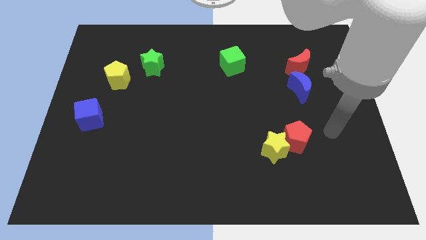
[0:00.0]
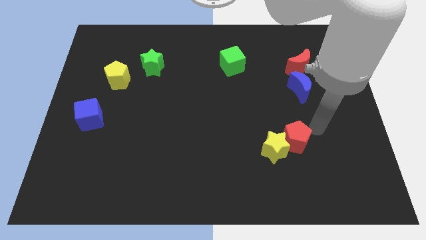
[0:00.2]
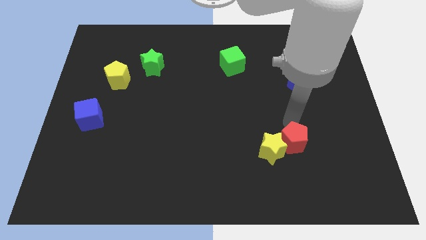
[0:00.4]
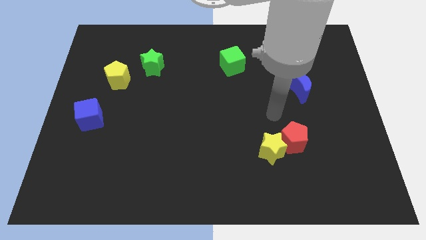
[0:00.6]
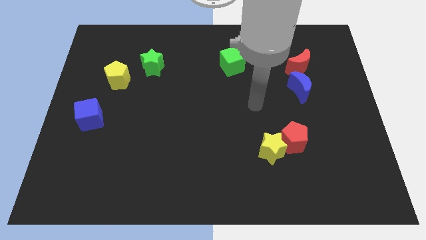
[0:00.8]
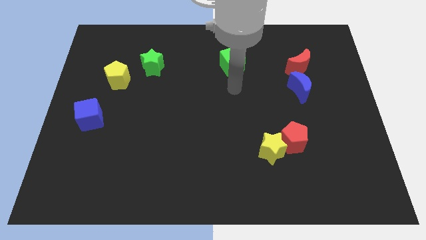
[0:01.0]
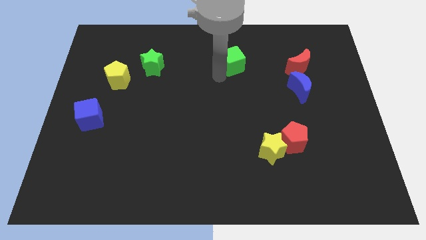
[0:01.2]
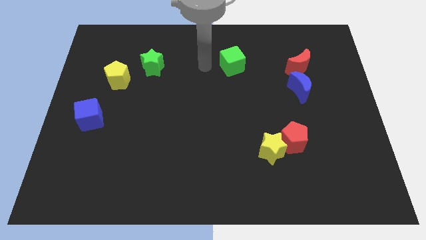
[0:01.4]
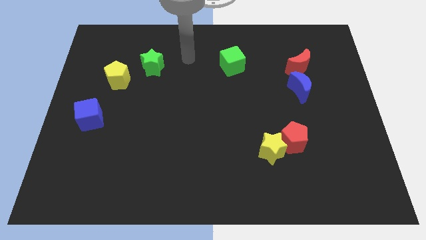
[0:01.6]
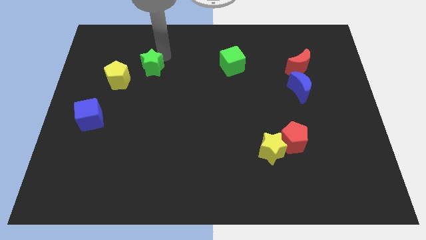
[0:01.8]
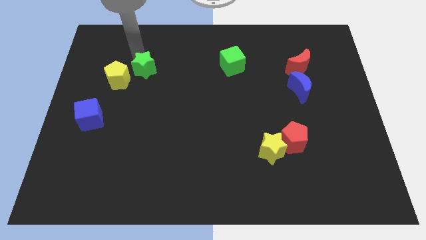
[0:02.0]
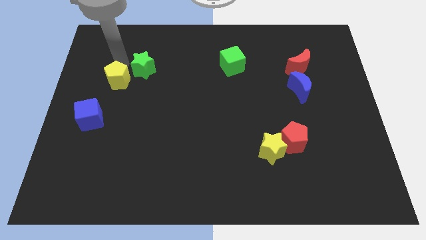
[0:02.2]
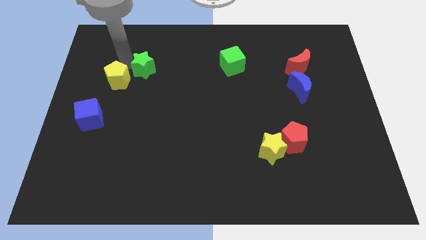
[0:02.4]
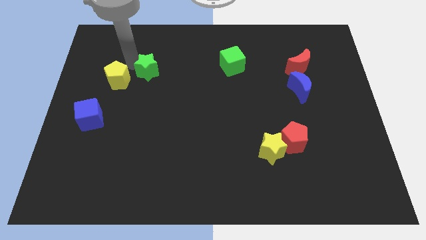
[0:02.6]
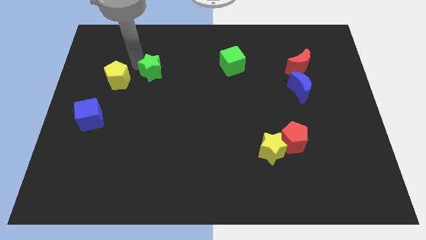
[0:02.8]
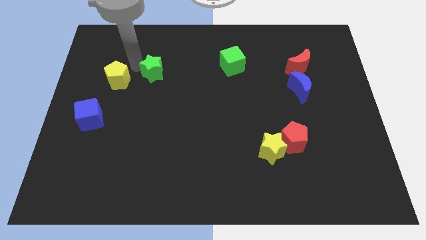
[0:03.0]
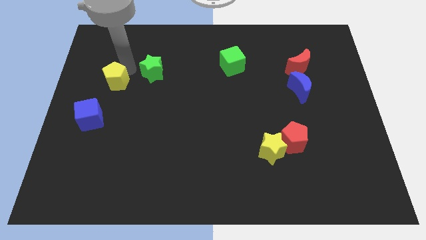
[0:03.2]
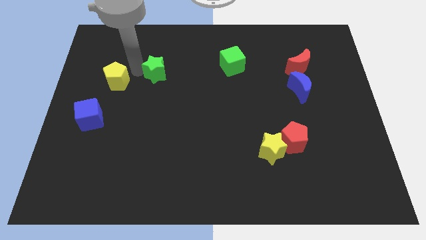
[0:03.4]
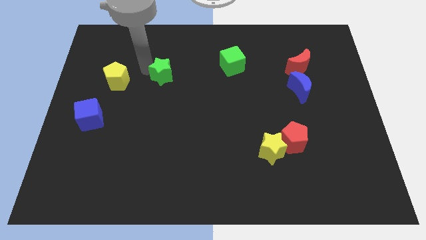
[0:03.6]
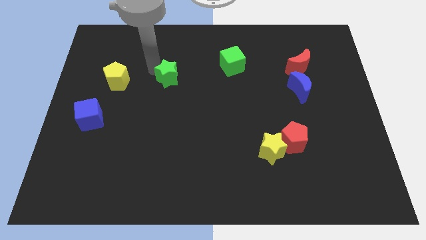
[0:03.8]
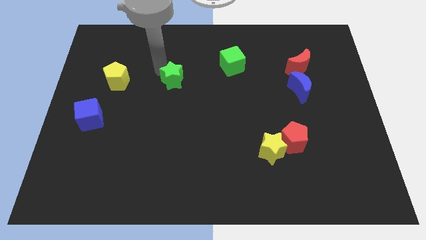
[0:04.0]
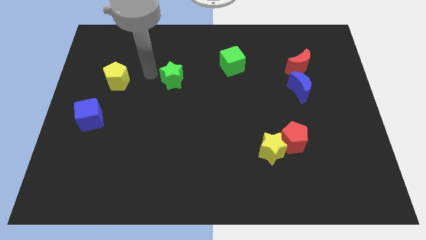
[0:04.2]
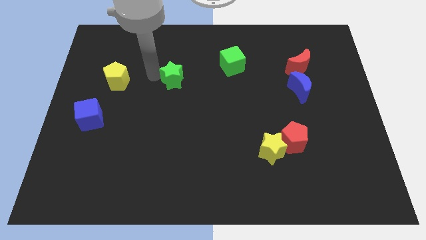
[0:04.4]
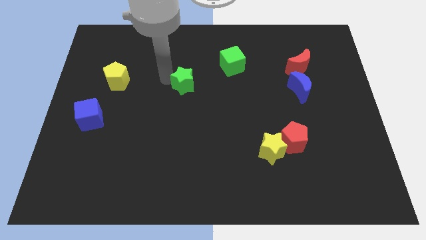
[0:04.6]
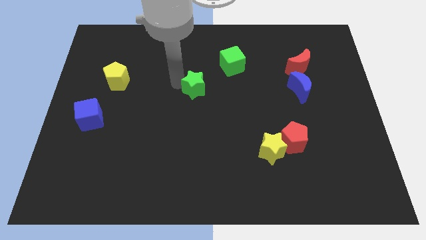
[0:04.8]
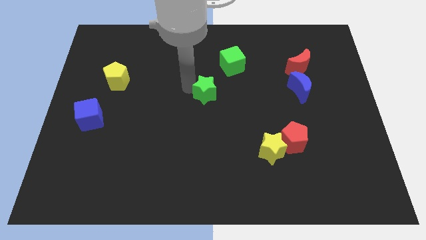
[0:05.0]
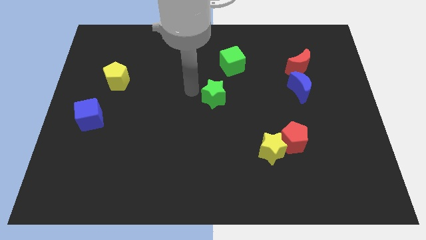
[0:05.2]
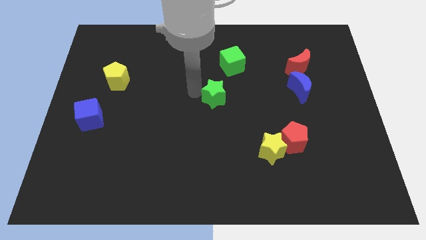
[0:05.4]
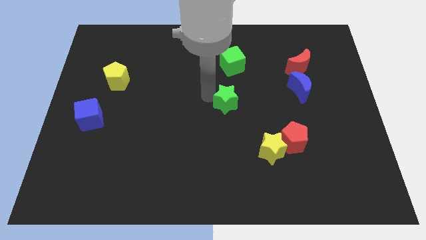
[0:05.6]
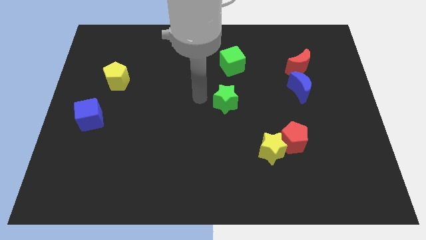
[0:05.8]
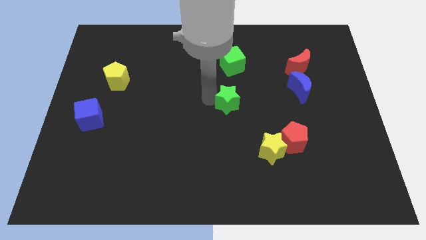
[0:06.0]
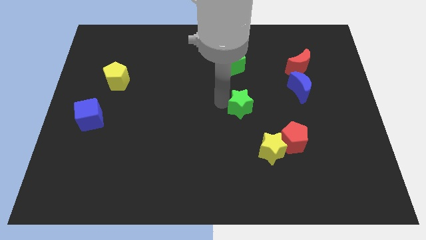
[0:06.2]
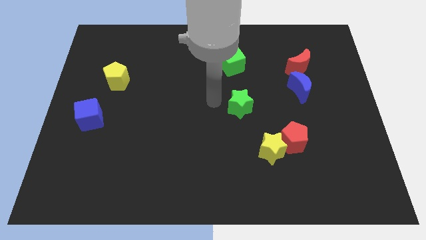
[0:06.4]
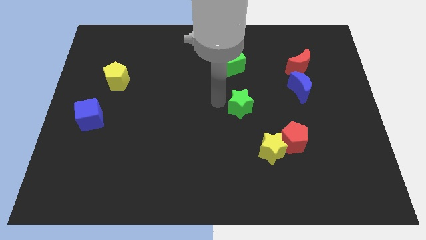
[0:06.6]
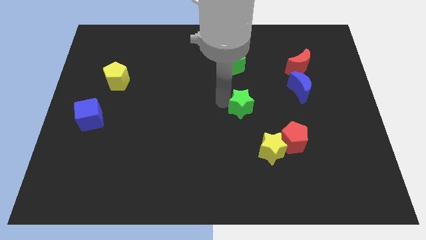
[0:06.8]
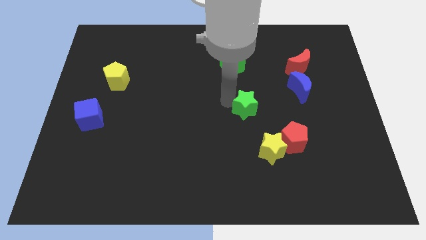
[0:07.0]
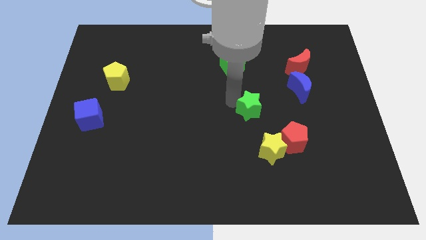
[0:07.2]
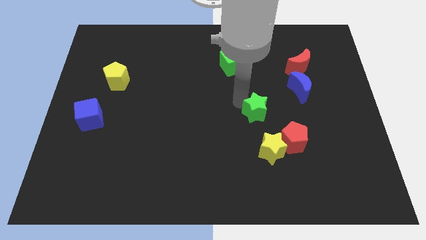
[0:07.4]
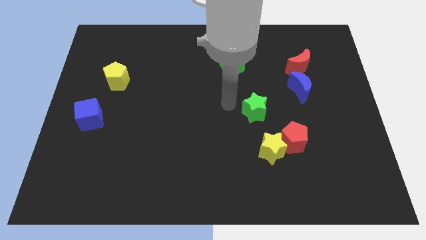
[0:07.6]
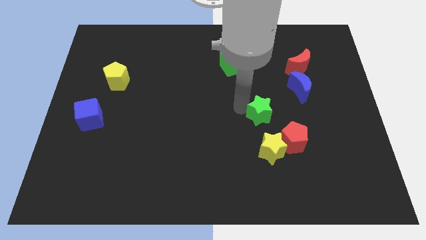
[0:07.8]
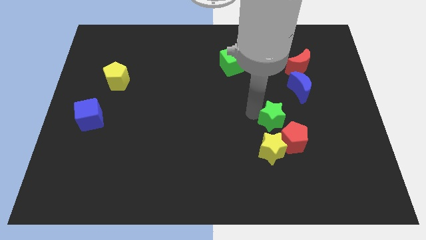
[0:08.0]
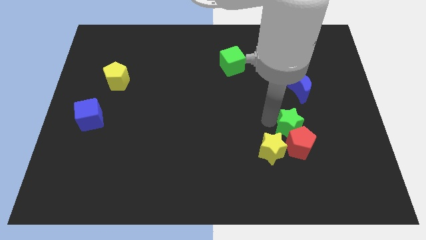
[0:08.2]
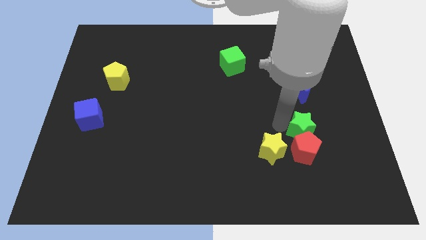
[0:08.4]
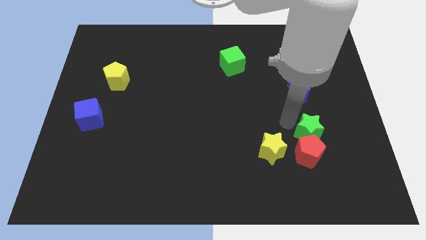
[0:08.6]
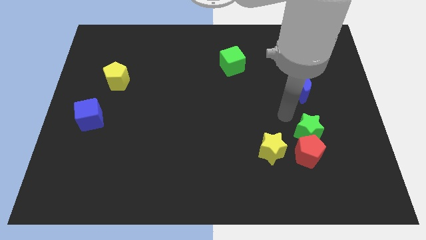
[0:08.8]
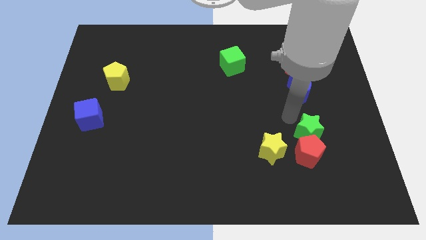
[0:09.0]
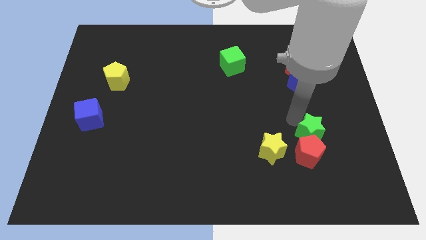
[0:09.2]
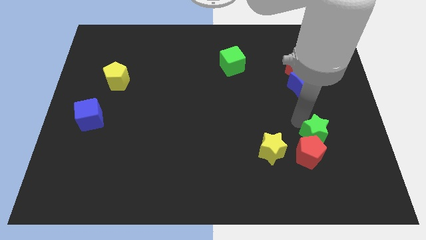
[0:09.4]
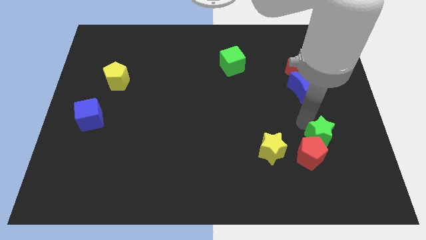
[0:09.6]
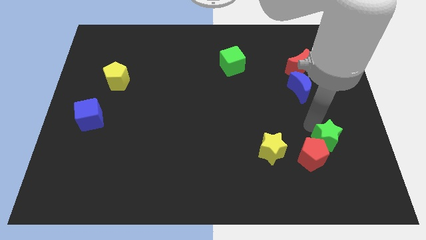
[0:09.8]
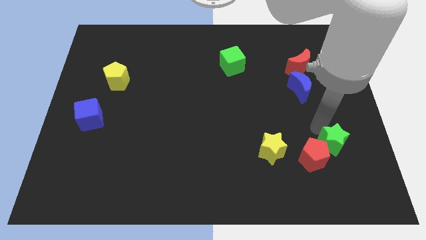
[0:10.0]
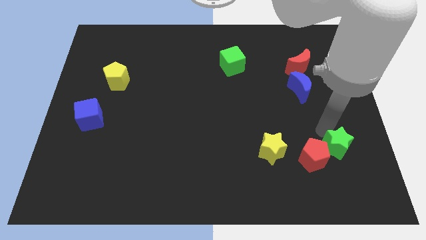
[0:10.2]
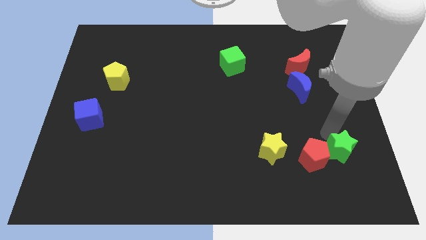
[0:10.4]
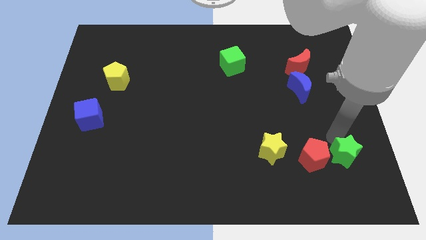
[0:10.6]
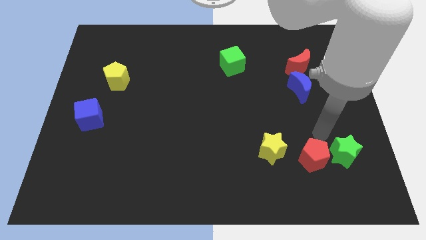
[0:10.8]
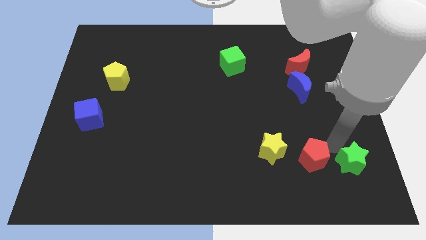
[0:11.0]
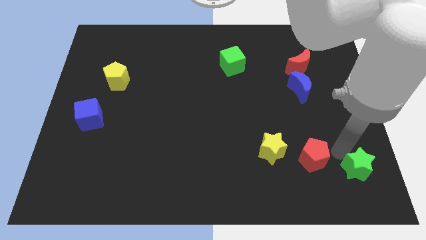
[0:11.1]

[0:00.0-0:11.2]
put the green star to the lower right corner

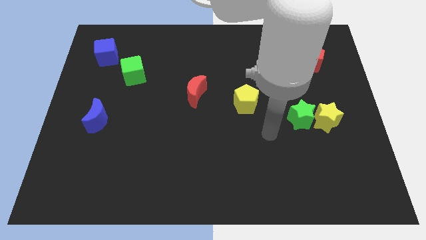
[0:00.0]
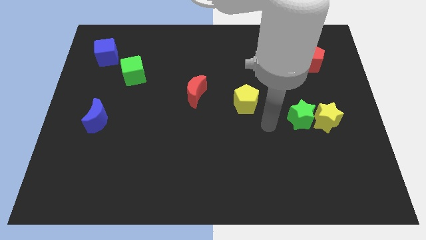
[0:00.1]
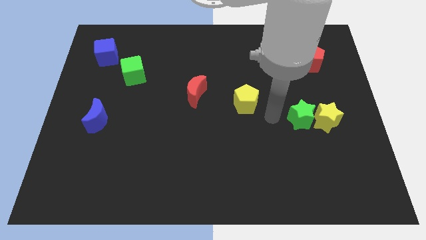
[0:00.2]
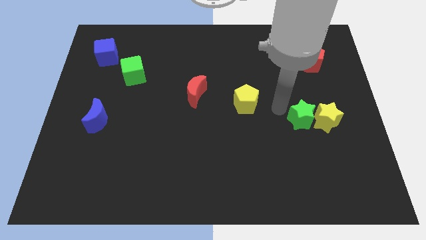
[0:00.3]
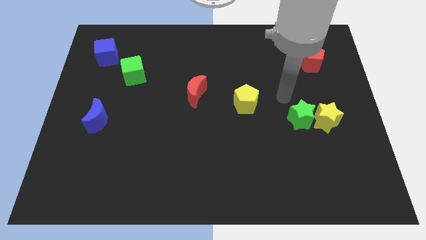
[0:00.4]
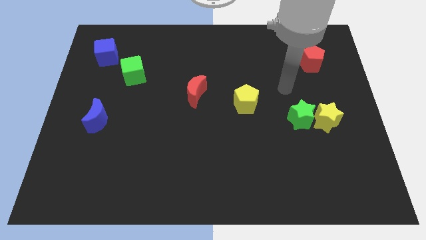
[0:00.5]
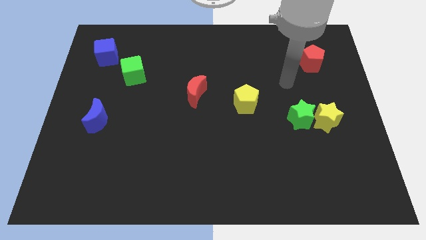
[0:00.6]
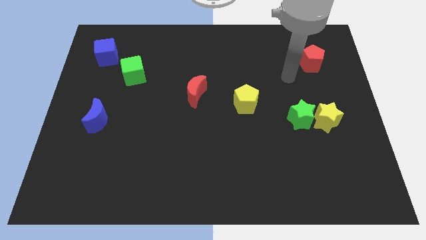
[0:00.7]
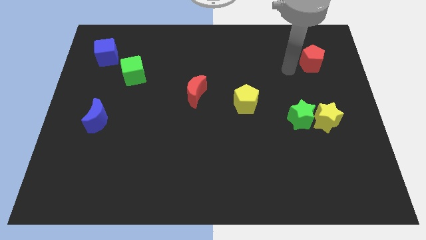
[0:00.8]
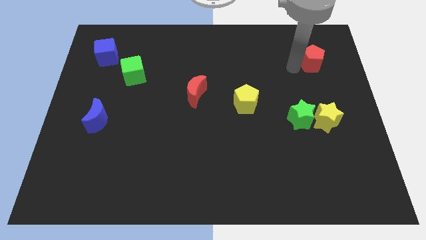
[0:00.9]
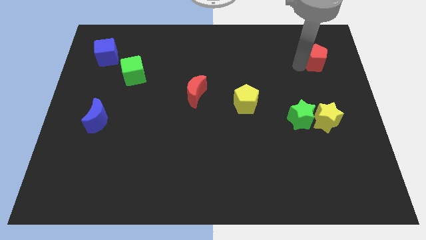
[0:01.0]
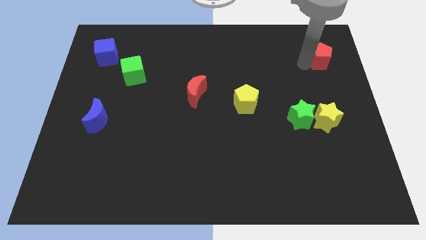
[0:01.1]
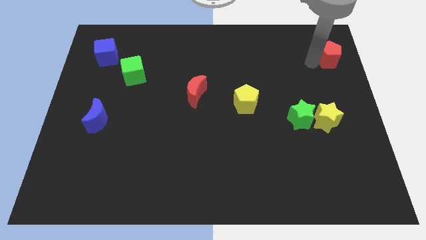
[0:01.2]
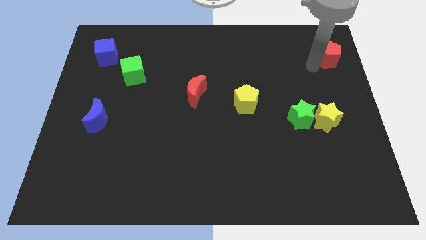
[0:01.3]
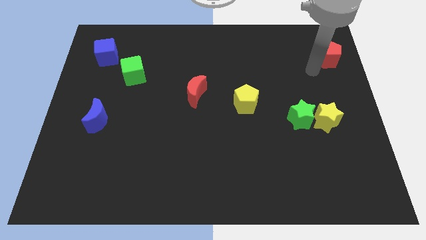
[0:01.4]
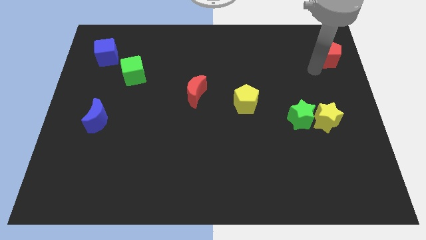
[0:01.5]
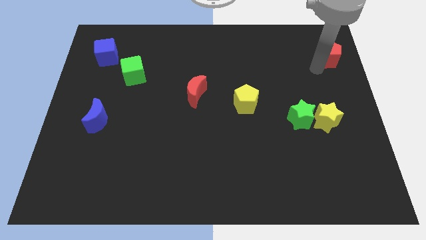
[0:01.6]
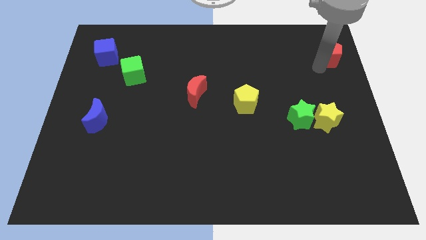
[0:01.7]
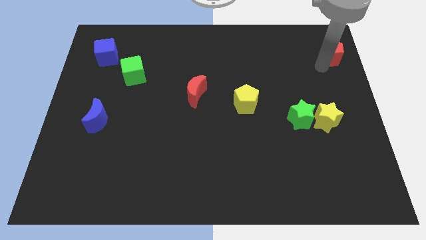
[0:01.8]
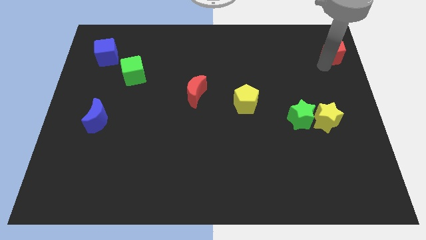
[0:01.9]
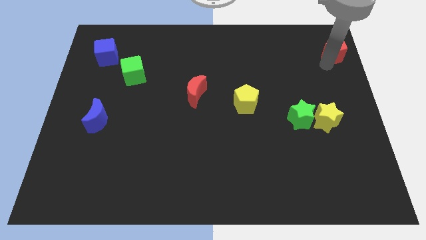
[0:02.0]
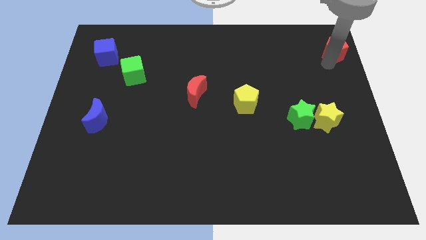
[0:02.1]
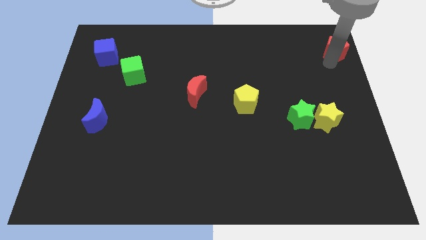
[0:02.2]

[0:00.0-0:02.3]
put the red pentagon to the upper right corner
